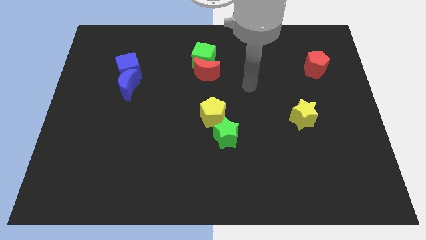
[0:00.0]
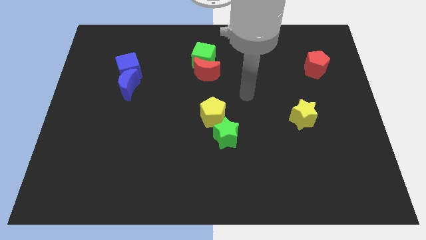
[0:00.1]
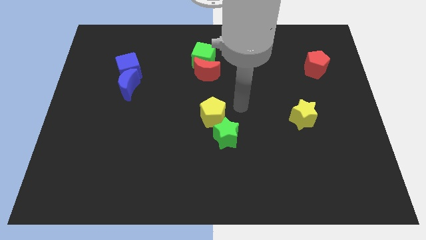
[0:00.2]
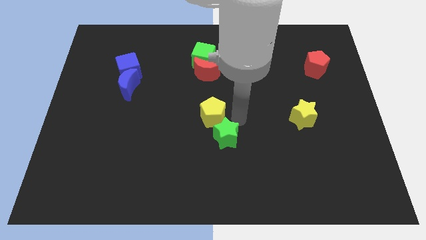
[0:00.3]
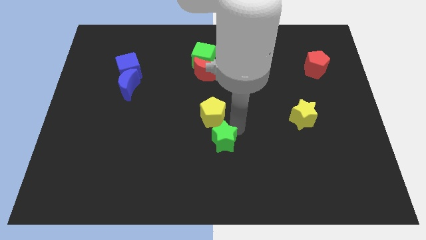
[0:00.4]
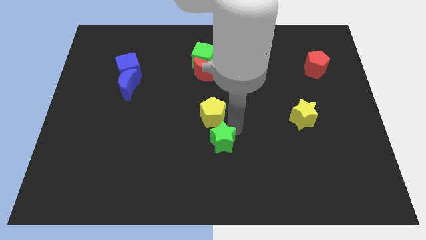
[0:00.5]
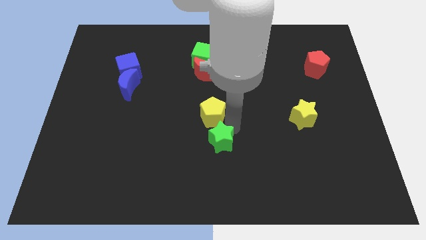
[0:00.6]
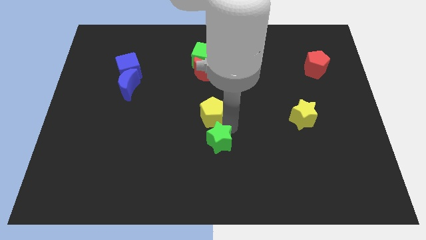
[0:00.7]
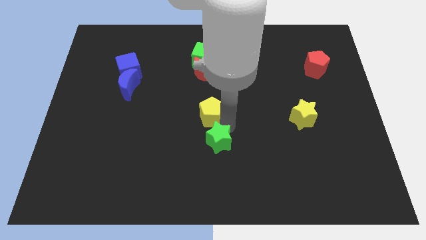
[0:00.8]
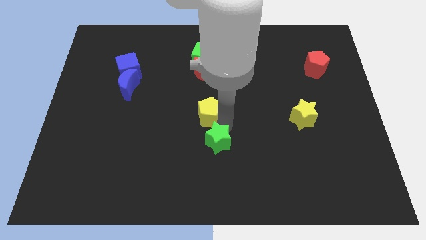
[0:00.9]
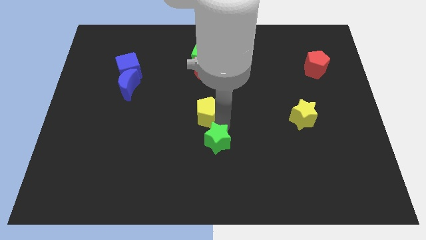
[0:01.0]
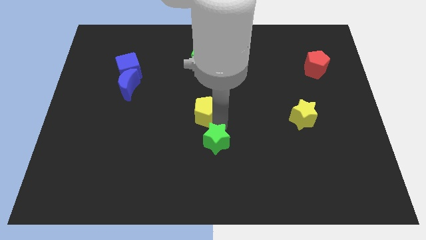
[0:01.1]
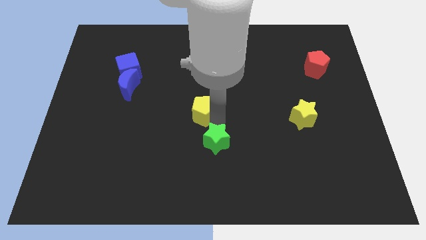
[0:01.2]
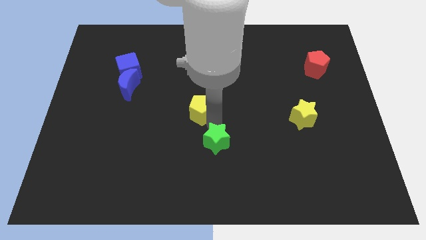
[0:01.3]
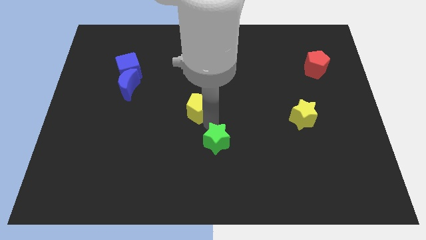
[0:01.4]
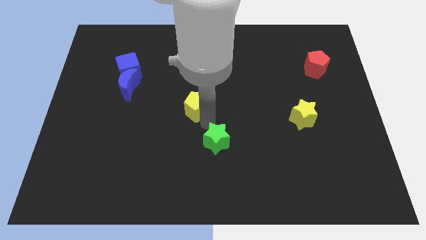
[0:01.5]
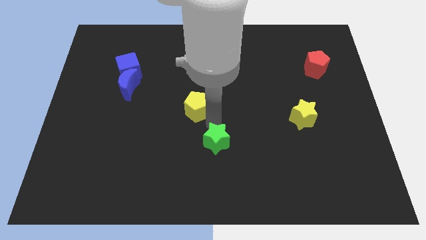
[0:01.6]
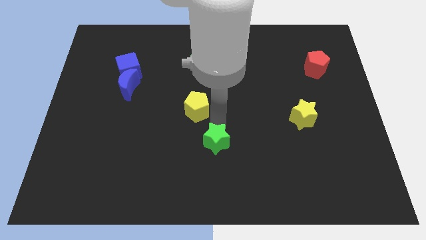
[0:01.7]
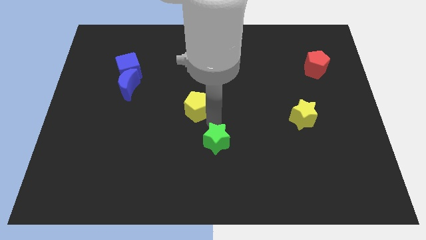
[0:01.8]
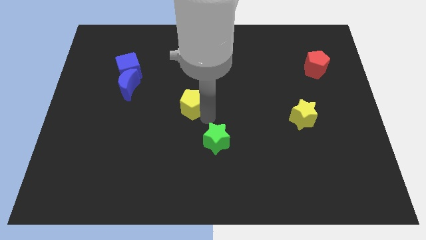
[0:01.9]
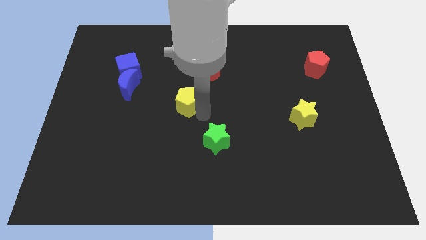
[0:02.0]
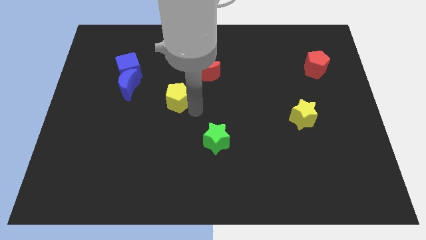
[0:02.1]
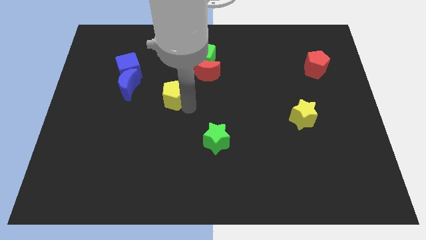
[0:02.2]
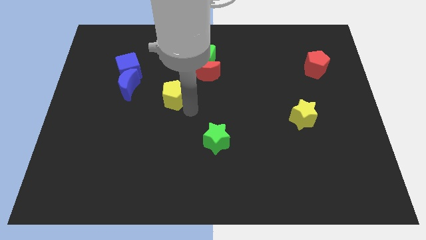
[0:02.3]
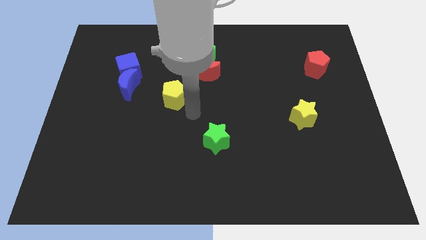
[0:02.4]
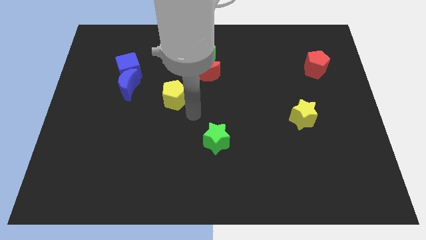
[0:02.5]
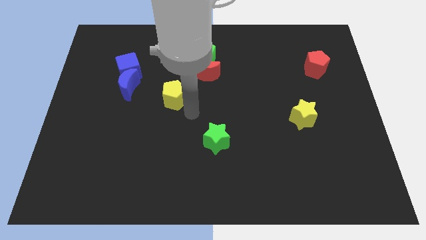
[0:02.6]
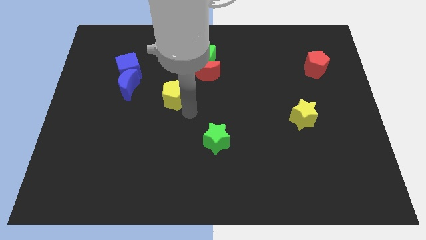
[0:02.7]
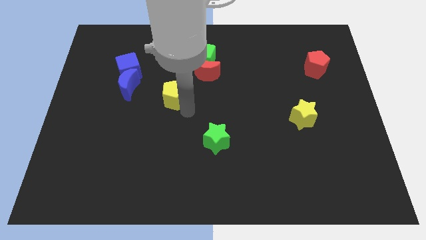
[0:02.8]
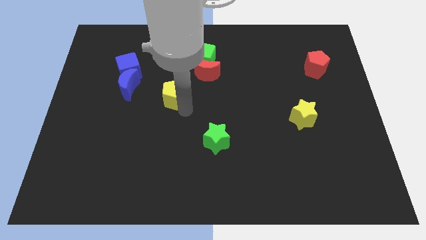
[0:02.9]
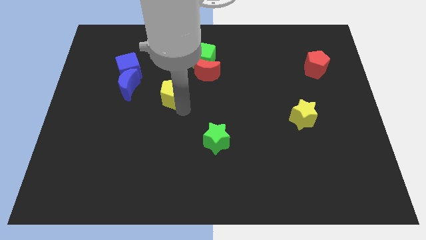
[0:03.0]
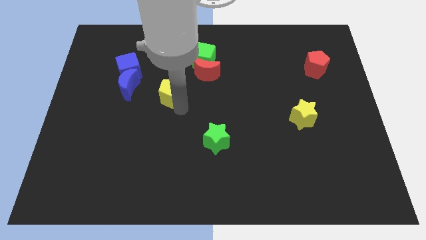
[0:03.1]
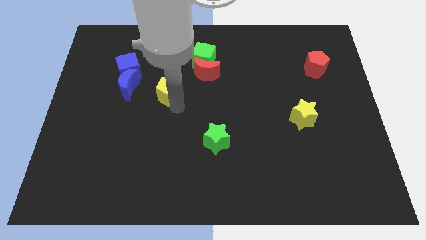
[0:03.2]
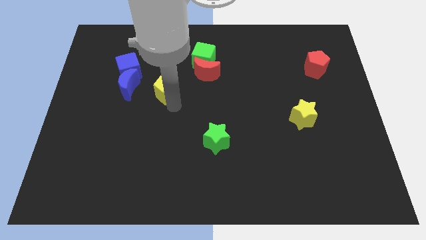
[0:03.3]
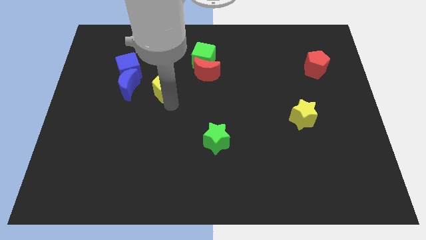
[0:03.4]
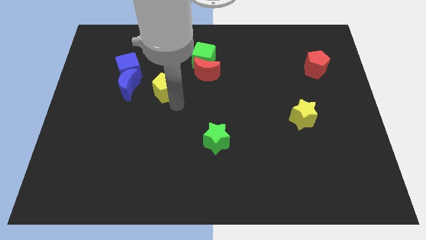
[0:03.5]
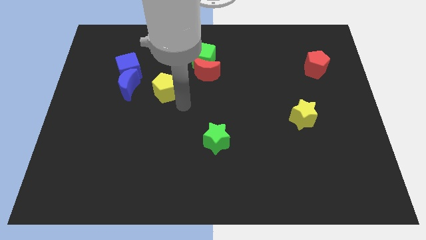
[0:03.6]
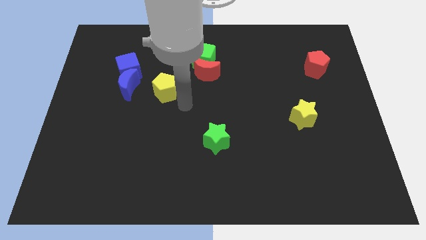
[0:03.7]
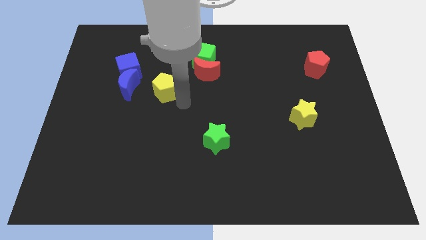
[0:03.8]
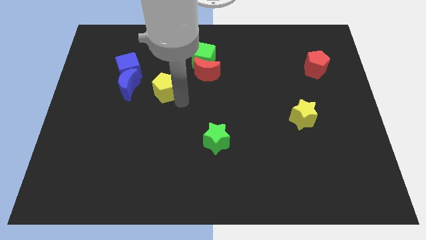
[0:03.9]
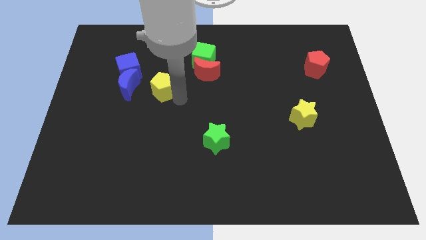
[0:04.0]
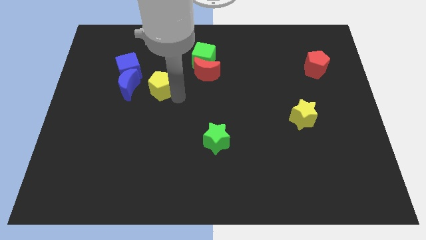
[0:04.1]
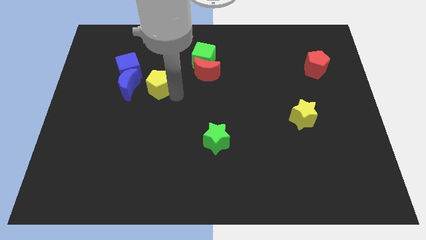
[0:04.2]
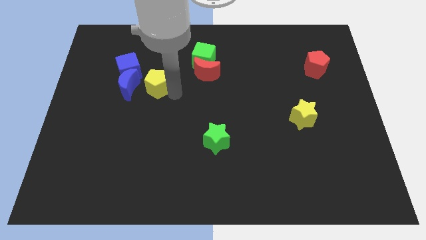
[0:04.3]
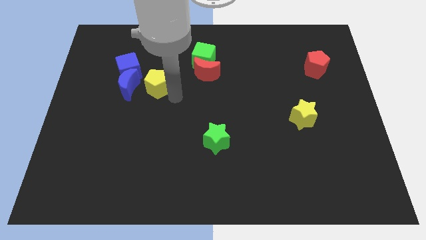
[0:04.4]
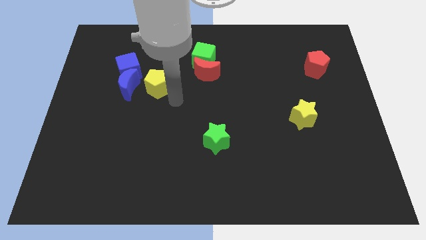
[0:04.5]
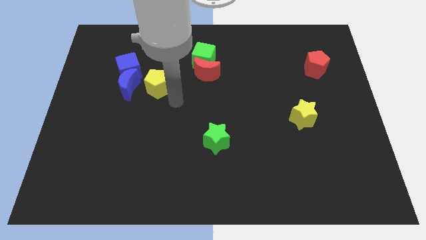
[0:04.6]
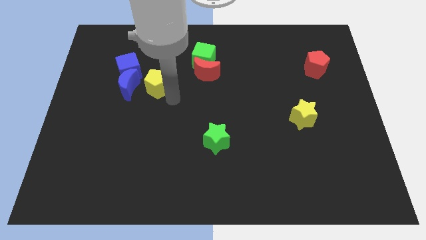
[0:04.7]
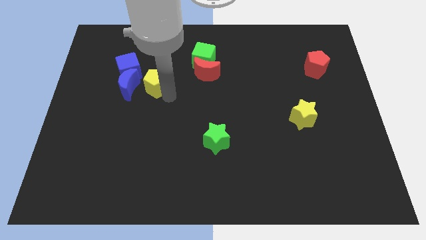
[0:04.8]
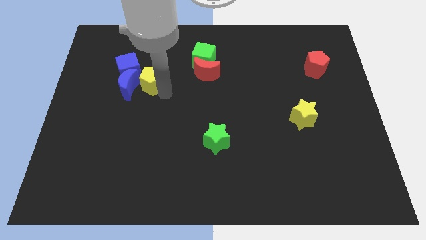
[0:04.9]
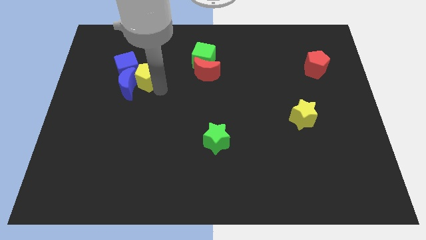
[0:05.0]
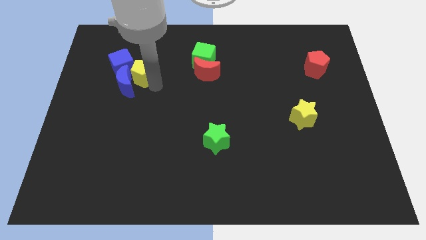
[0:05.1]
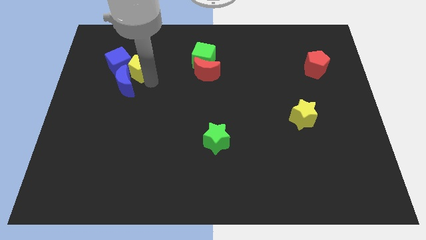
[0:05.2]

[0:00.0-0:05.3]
move the yellow pentagon next to the blue cube

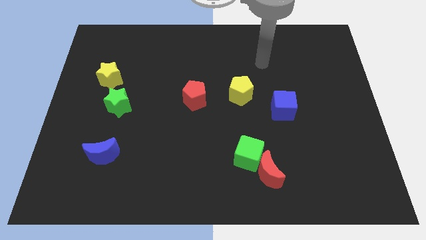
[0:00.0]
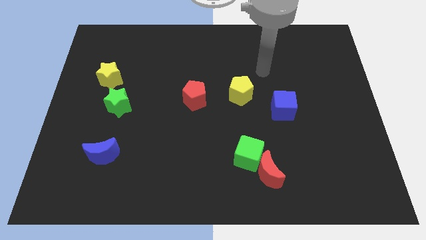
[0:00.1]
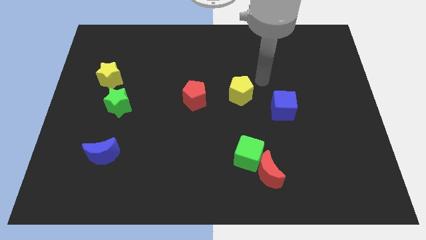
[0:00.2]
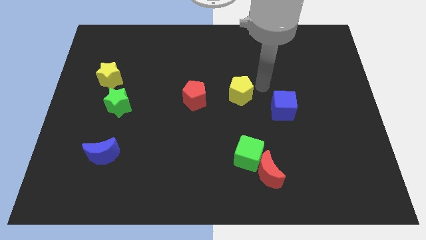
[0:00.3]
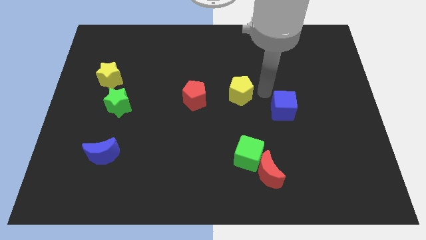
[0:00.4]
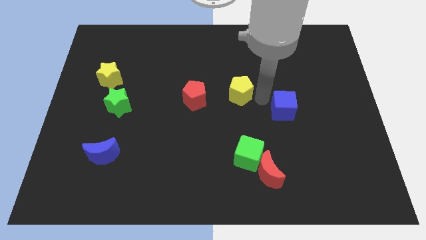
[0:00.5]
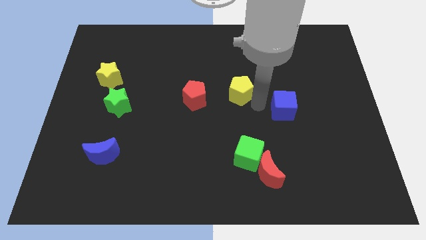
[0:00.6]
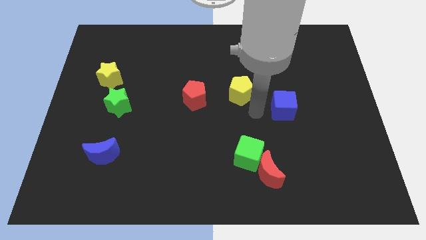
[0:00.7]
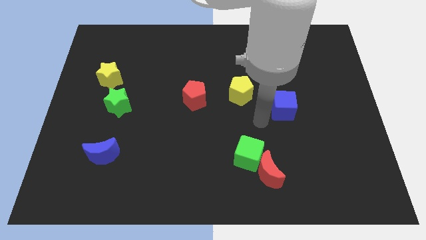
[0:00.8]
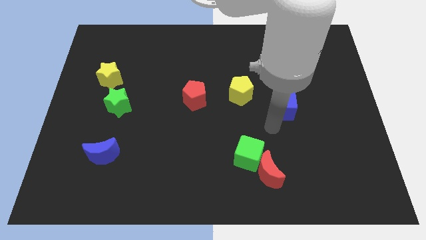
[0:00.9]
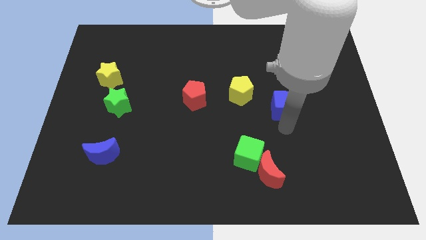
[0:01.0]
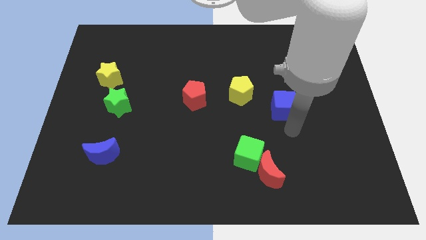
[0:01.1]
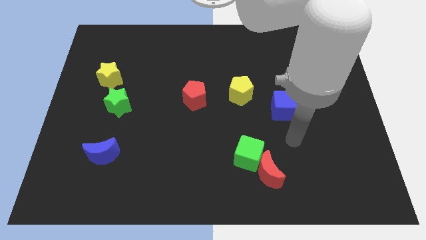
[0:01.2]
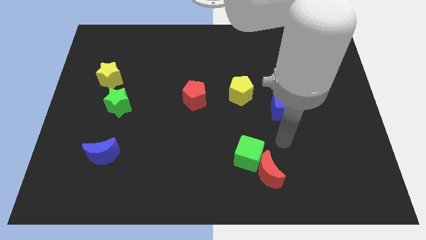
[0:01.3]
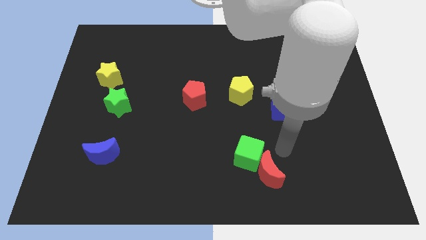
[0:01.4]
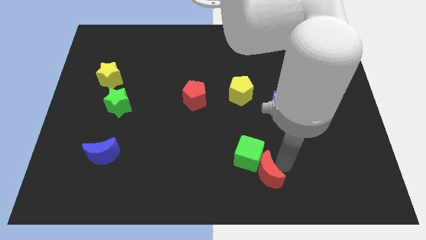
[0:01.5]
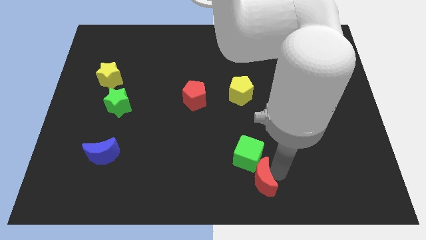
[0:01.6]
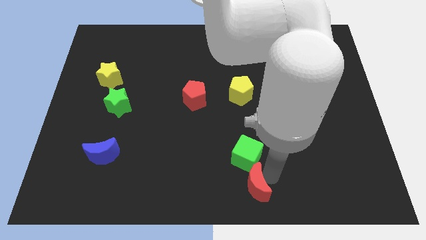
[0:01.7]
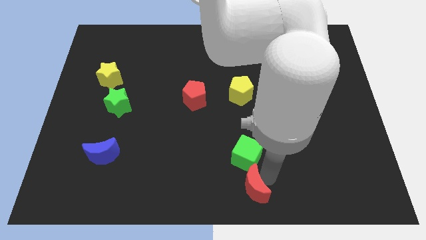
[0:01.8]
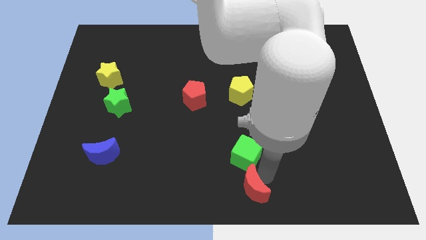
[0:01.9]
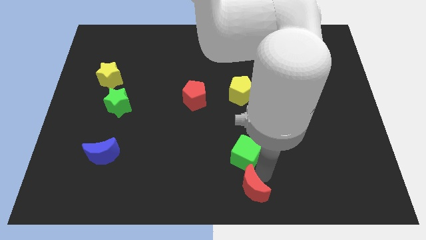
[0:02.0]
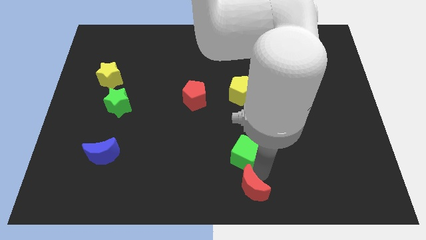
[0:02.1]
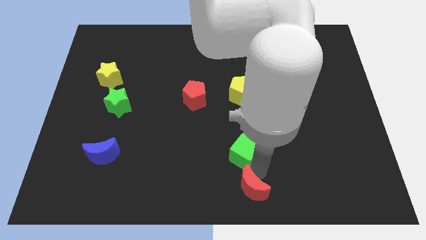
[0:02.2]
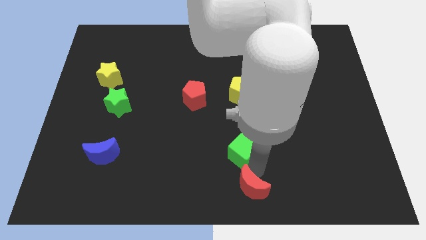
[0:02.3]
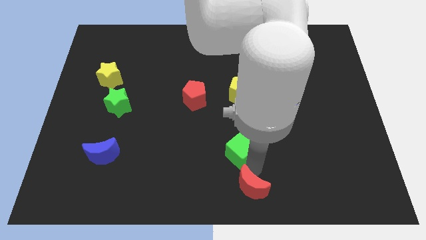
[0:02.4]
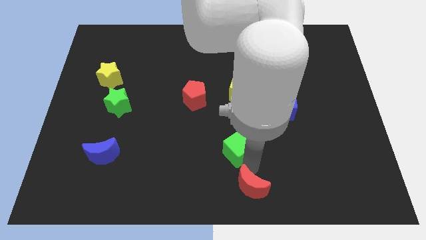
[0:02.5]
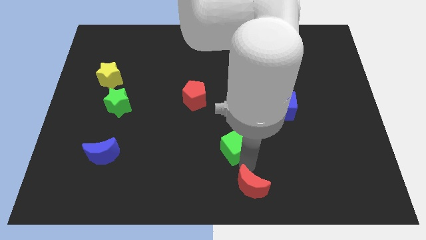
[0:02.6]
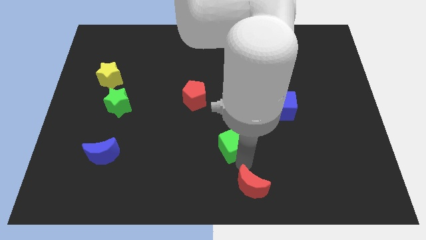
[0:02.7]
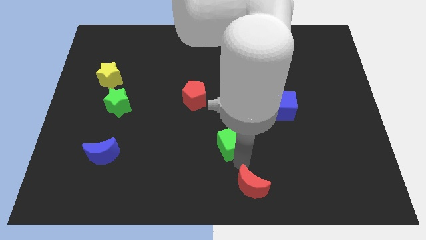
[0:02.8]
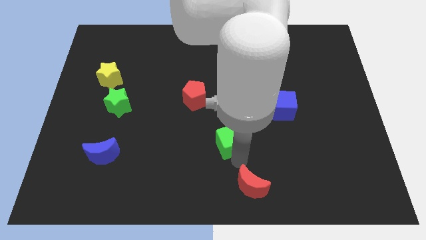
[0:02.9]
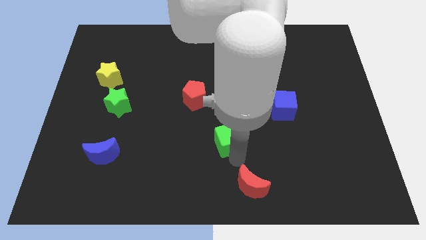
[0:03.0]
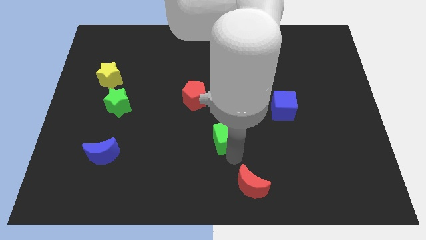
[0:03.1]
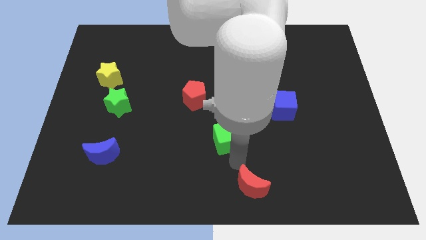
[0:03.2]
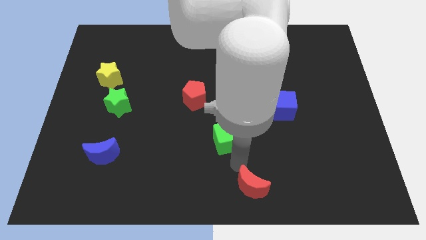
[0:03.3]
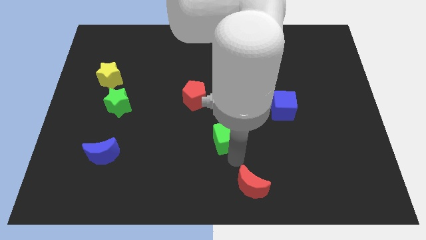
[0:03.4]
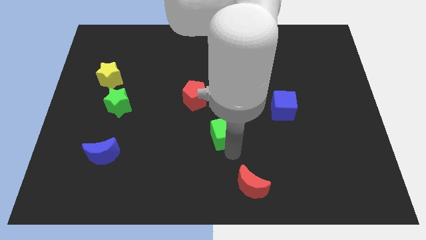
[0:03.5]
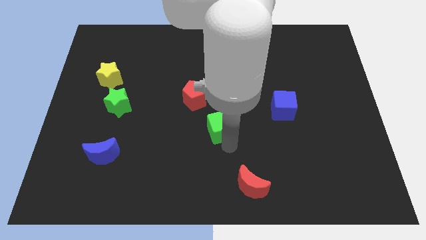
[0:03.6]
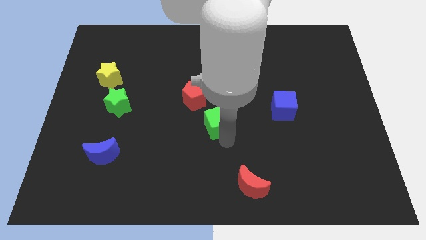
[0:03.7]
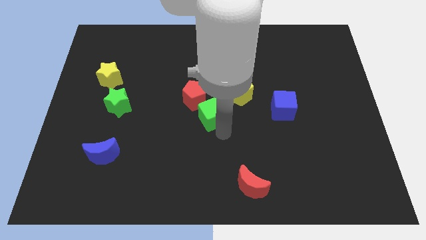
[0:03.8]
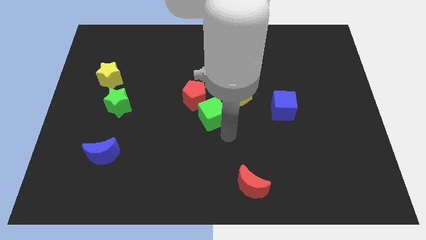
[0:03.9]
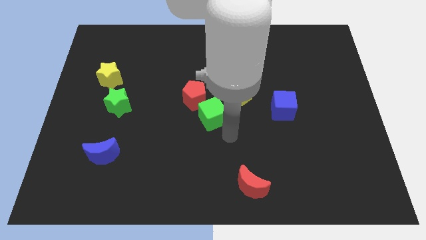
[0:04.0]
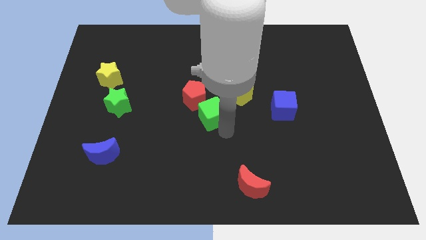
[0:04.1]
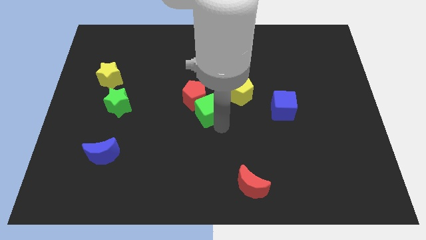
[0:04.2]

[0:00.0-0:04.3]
put the green cube close to the red pentagon
